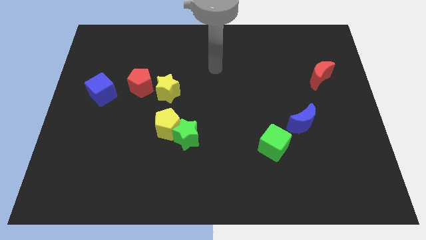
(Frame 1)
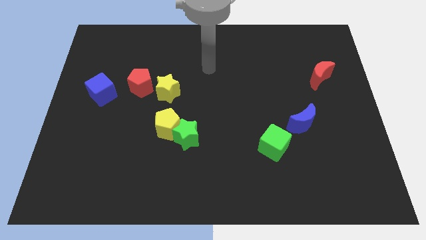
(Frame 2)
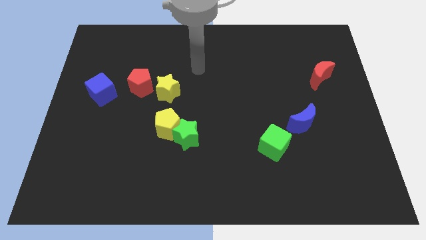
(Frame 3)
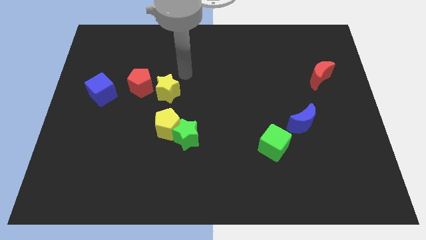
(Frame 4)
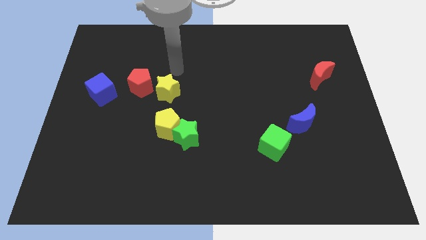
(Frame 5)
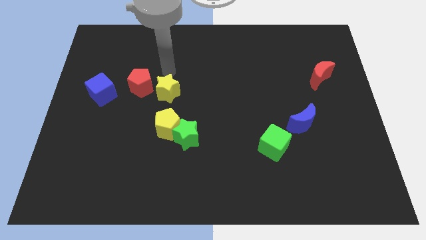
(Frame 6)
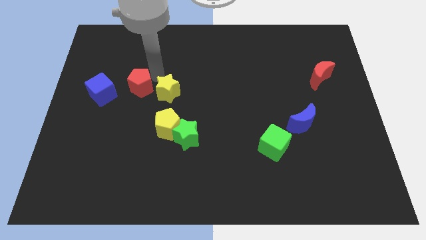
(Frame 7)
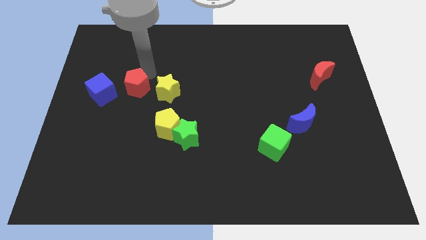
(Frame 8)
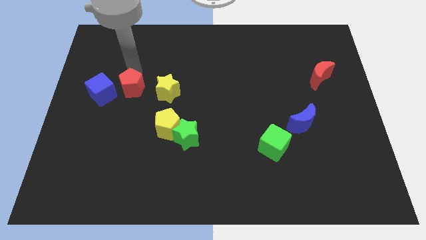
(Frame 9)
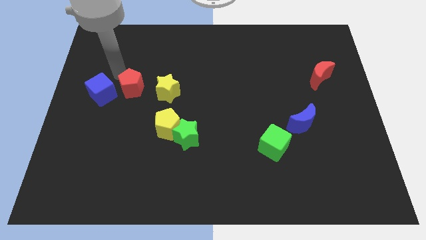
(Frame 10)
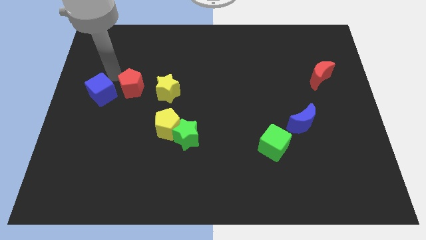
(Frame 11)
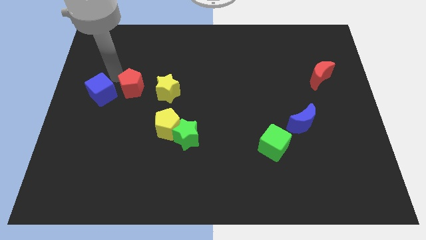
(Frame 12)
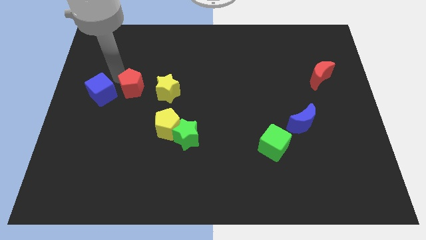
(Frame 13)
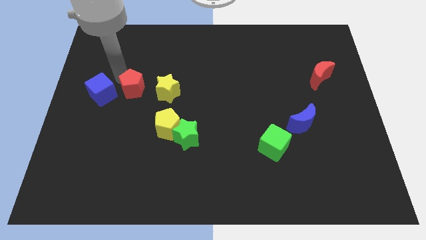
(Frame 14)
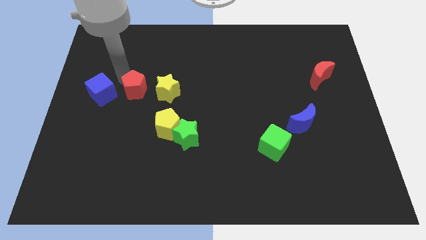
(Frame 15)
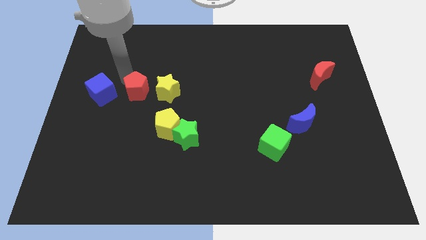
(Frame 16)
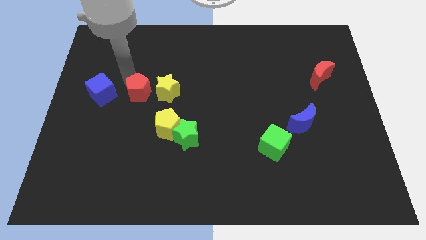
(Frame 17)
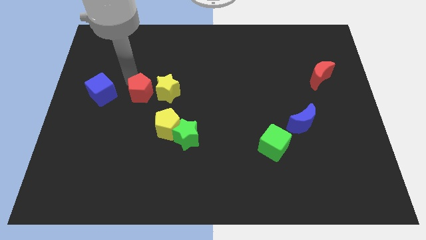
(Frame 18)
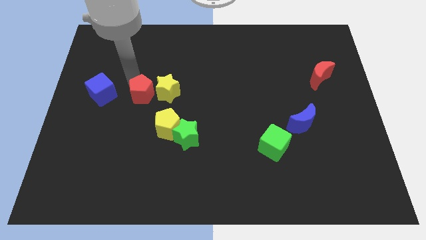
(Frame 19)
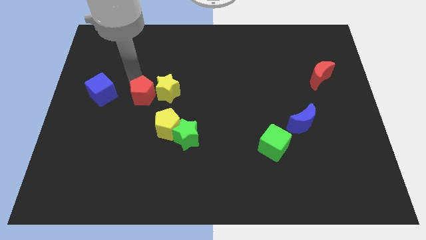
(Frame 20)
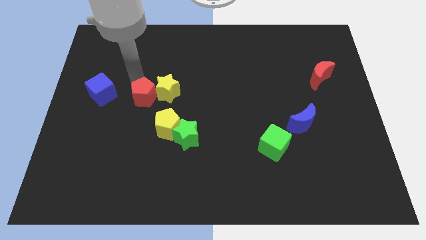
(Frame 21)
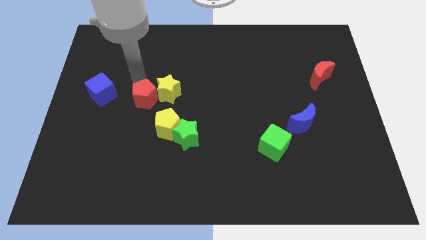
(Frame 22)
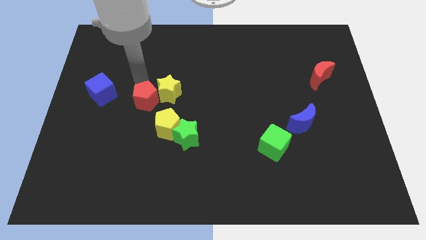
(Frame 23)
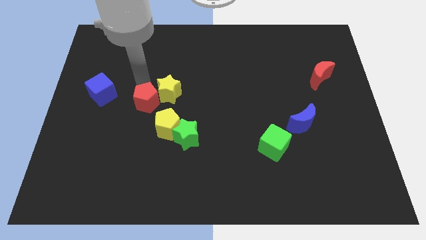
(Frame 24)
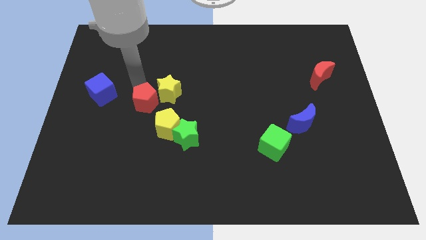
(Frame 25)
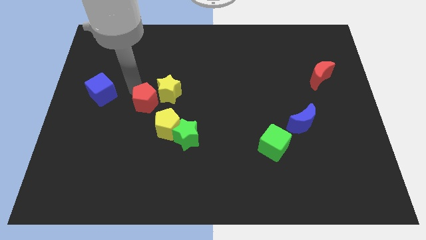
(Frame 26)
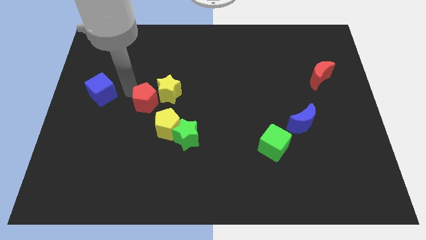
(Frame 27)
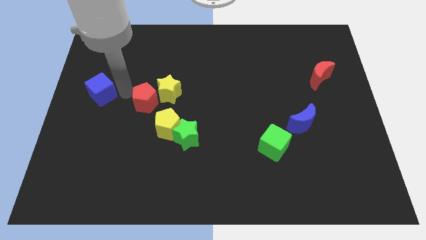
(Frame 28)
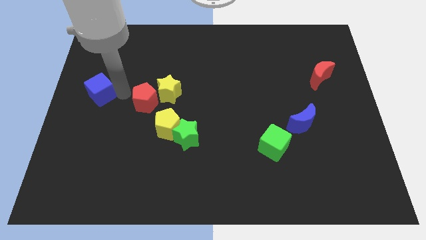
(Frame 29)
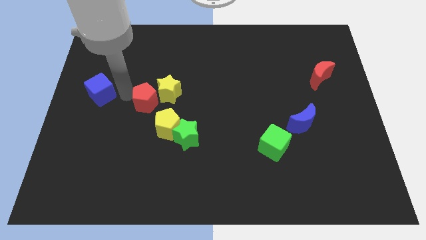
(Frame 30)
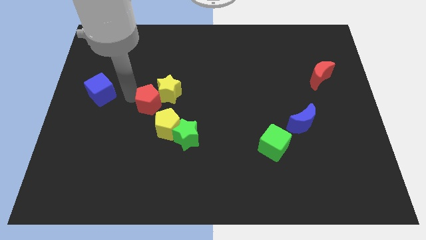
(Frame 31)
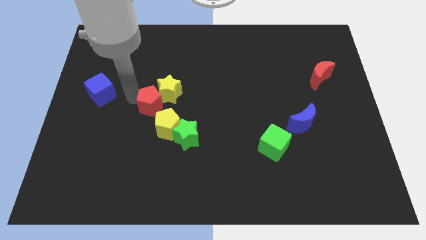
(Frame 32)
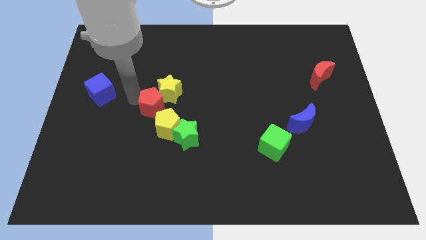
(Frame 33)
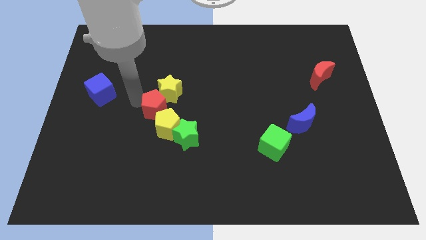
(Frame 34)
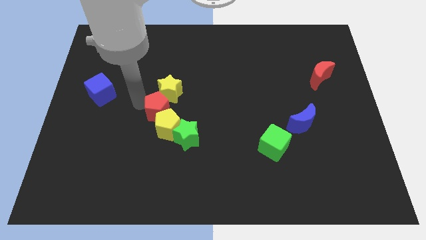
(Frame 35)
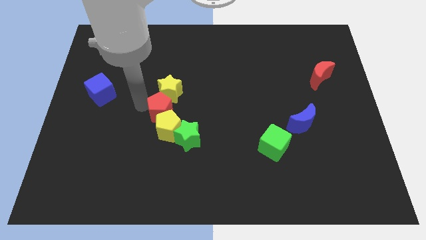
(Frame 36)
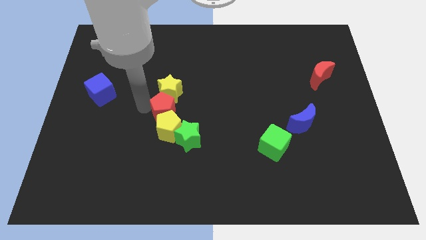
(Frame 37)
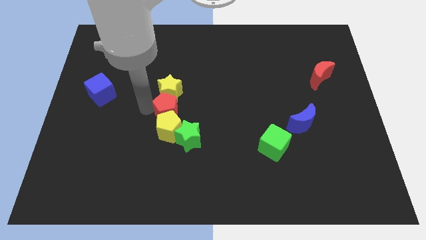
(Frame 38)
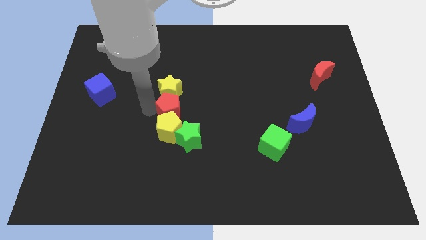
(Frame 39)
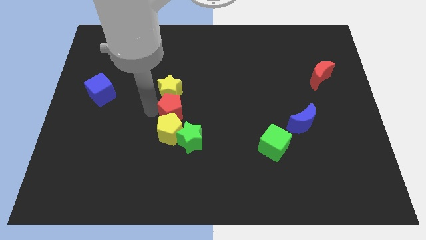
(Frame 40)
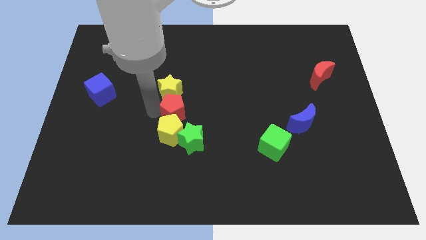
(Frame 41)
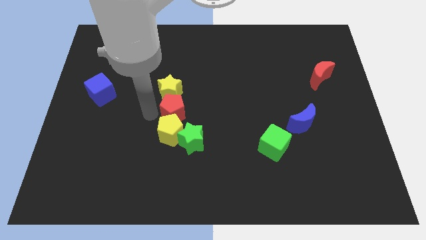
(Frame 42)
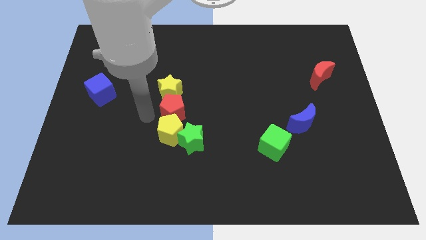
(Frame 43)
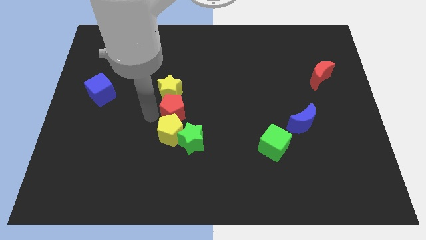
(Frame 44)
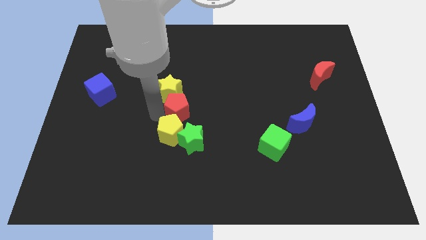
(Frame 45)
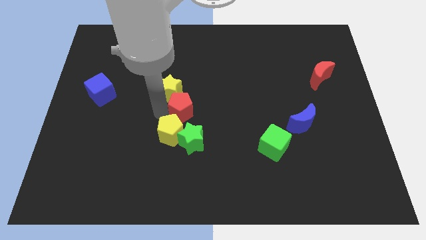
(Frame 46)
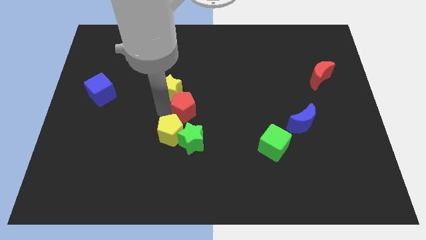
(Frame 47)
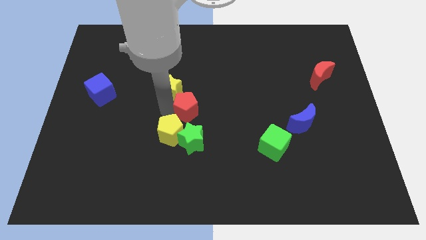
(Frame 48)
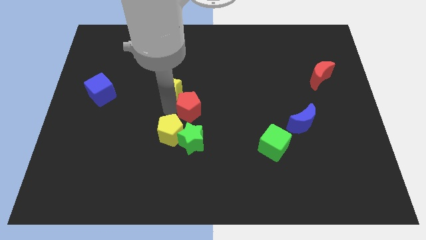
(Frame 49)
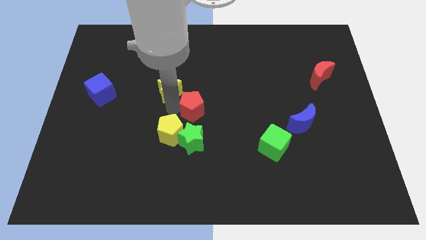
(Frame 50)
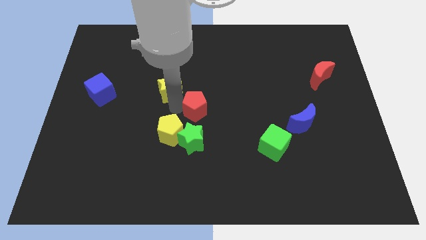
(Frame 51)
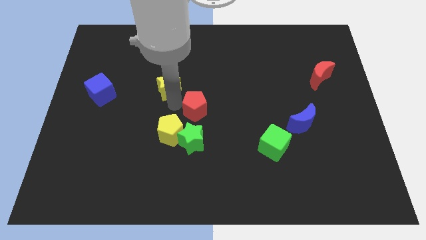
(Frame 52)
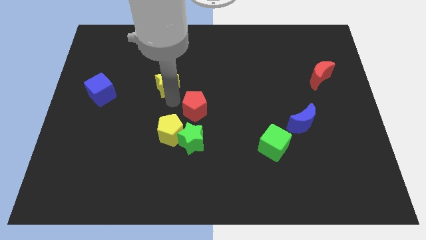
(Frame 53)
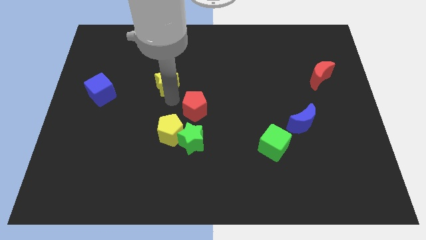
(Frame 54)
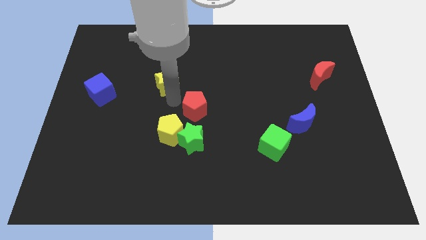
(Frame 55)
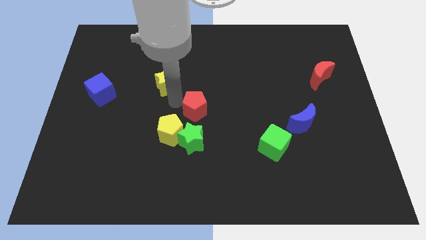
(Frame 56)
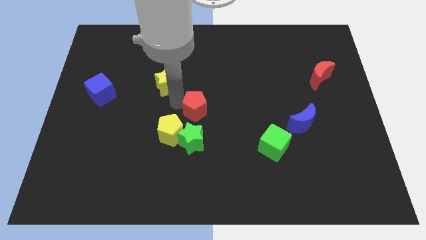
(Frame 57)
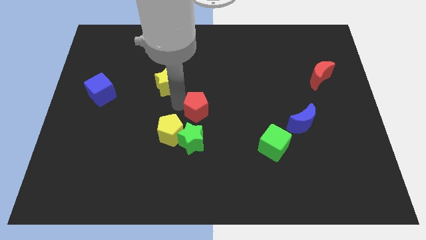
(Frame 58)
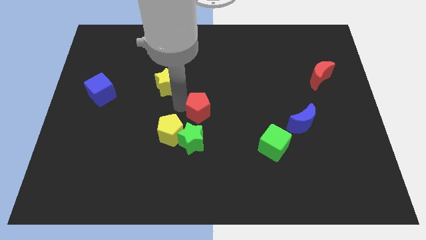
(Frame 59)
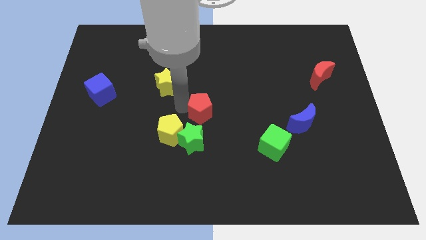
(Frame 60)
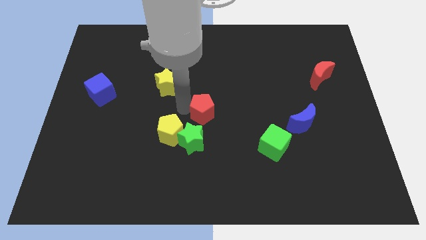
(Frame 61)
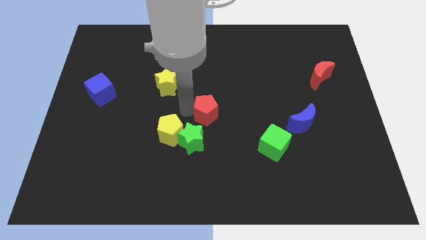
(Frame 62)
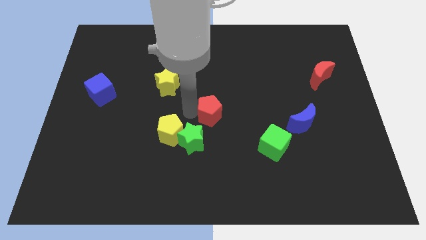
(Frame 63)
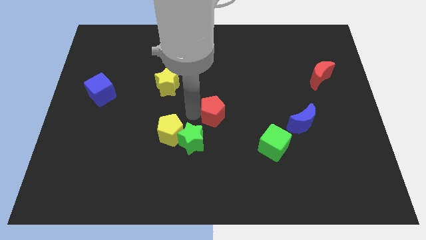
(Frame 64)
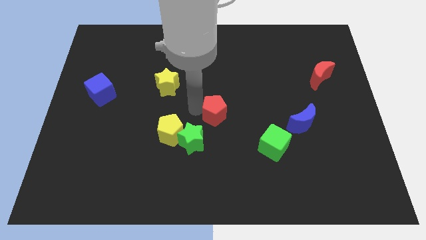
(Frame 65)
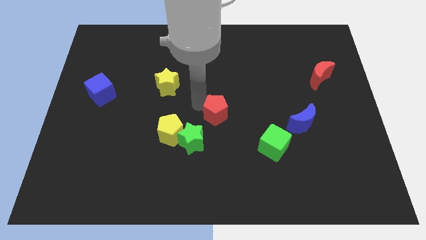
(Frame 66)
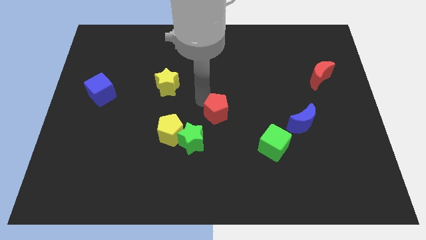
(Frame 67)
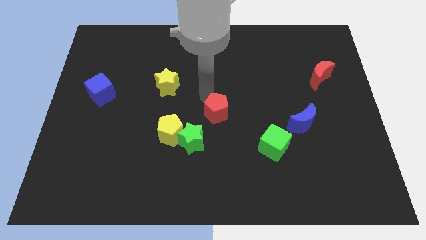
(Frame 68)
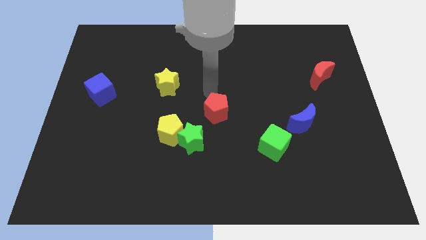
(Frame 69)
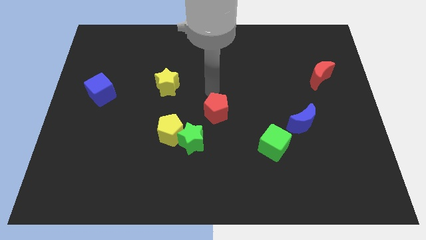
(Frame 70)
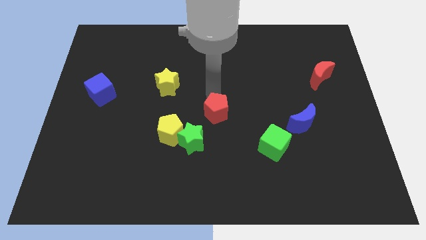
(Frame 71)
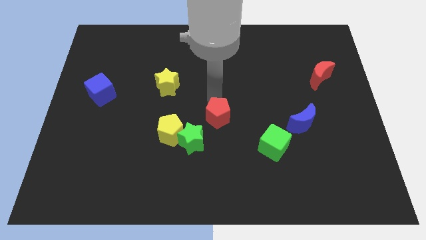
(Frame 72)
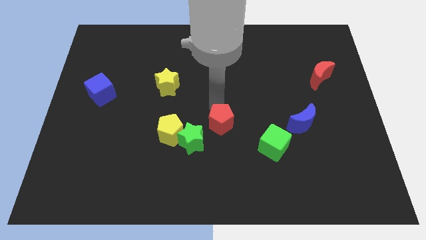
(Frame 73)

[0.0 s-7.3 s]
slide the red pentagon diagonally downwards and right

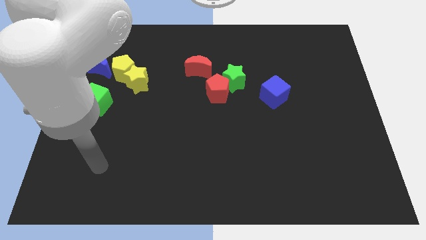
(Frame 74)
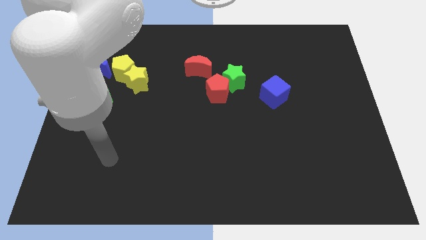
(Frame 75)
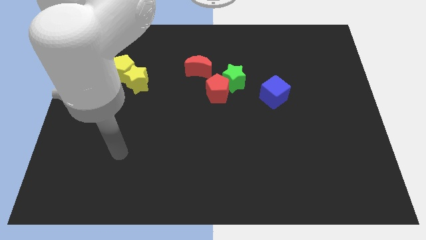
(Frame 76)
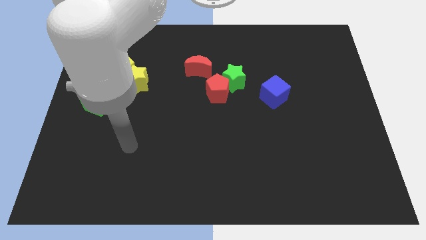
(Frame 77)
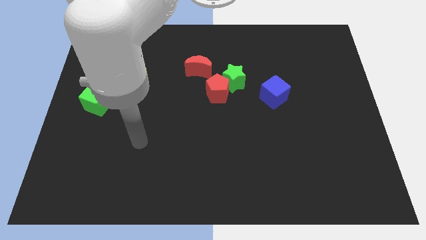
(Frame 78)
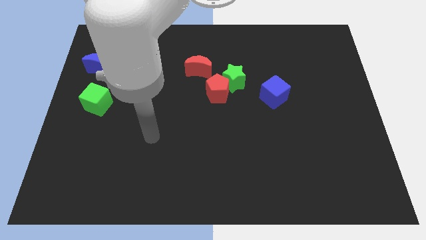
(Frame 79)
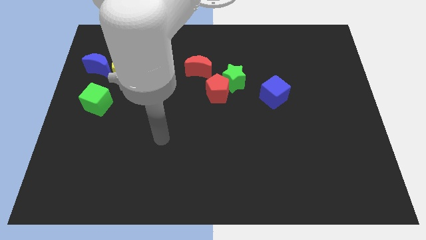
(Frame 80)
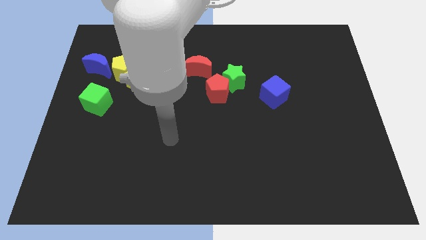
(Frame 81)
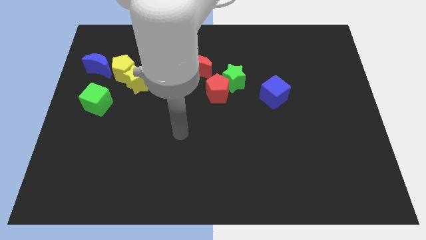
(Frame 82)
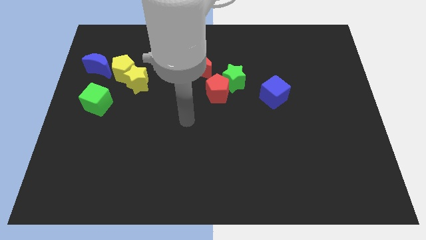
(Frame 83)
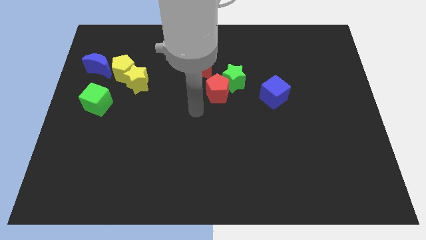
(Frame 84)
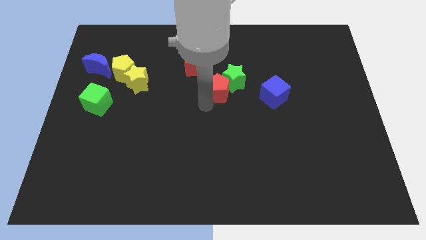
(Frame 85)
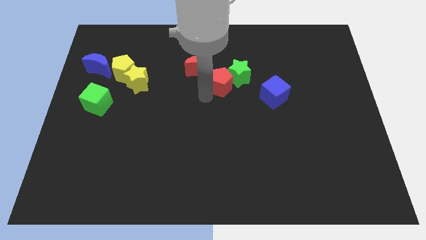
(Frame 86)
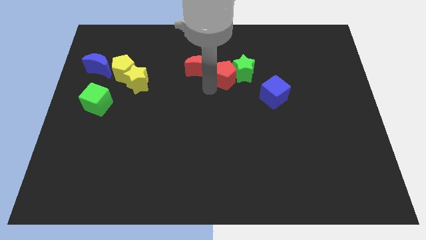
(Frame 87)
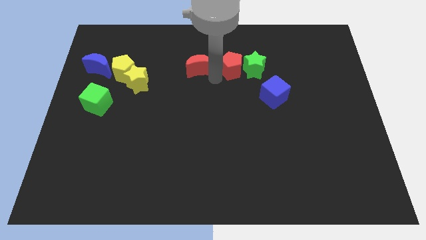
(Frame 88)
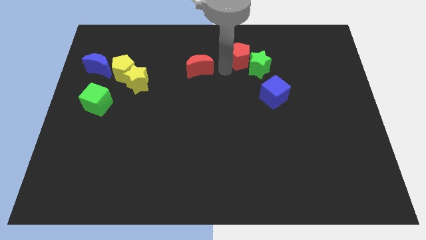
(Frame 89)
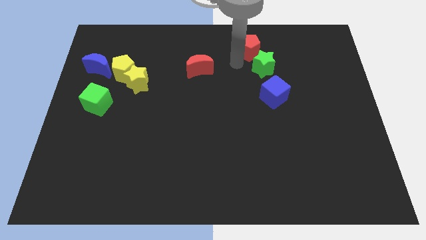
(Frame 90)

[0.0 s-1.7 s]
slightly push the green star to the right
